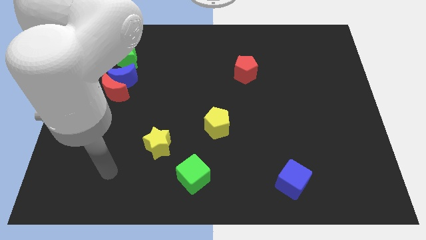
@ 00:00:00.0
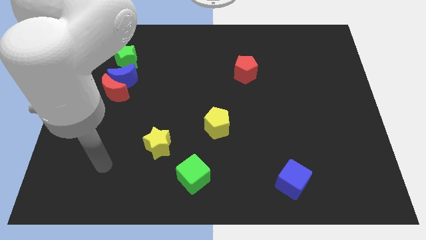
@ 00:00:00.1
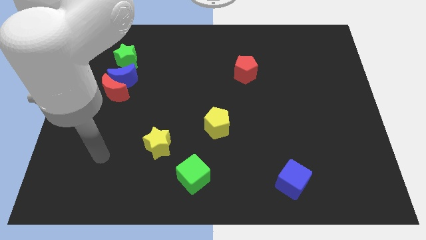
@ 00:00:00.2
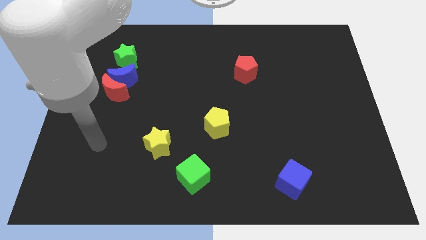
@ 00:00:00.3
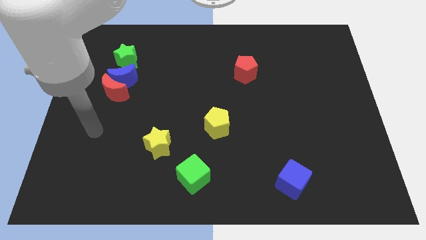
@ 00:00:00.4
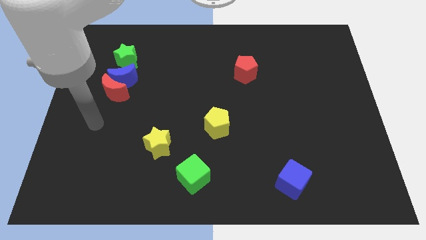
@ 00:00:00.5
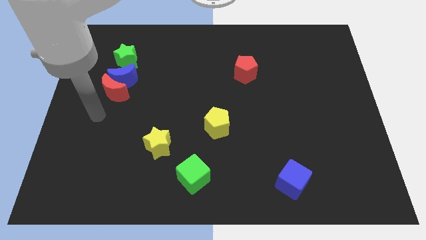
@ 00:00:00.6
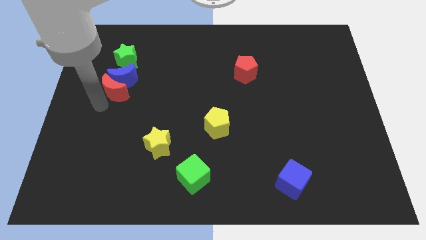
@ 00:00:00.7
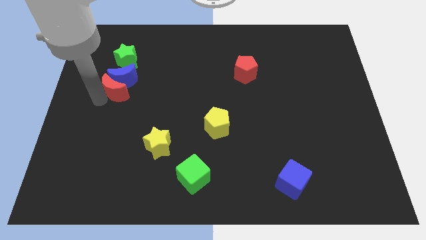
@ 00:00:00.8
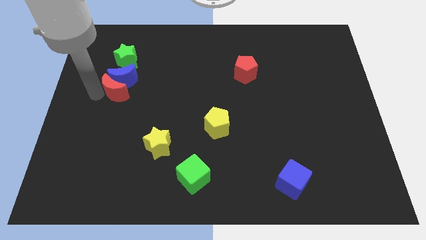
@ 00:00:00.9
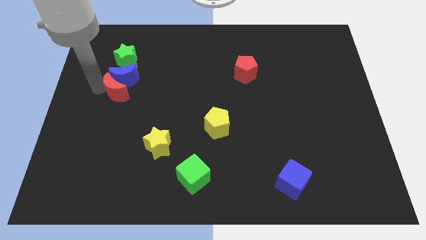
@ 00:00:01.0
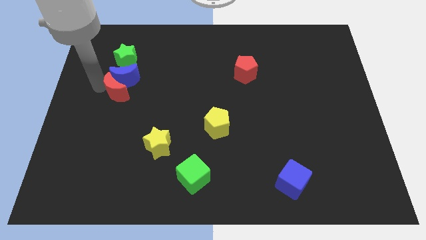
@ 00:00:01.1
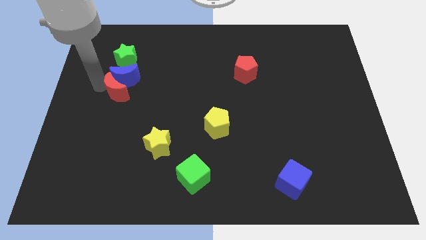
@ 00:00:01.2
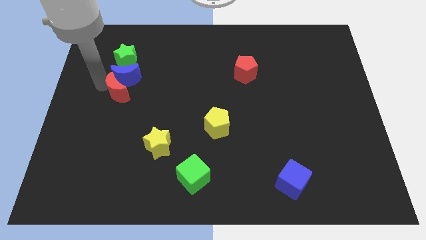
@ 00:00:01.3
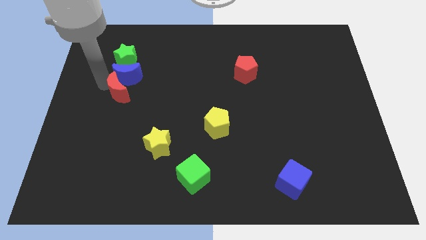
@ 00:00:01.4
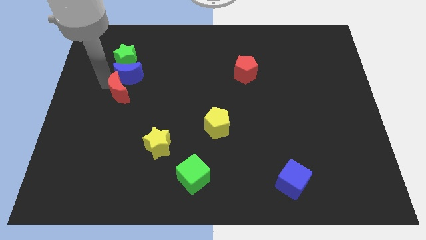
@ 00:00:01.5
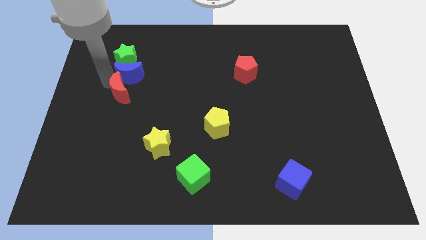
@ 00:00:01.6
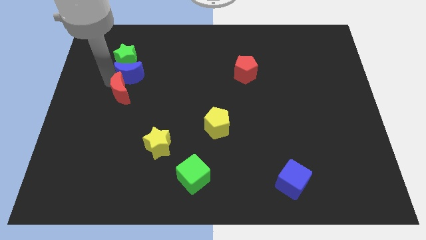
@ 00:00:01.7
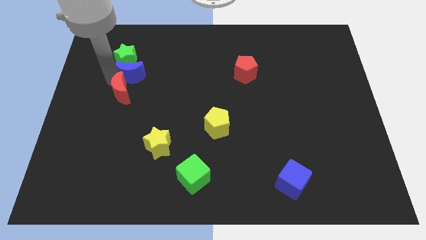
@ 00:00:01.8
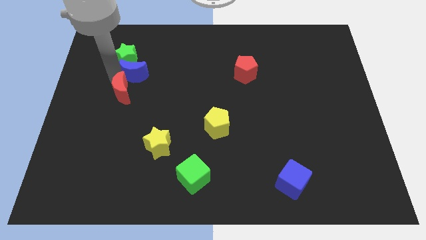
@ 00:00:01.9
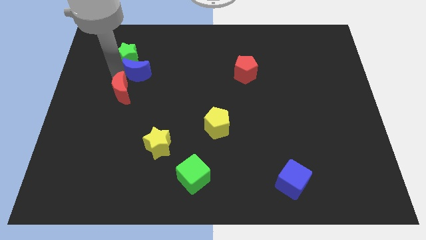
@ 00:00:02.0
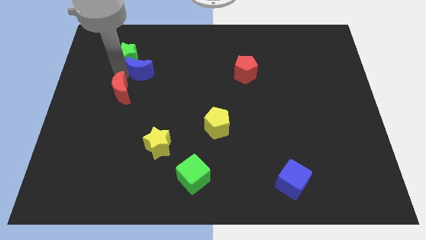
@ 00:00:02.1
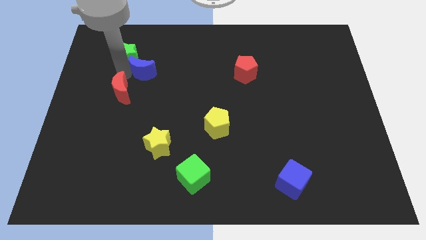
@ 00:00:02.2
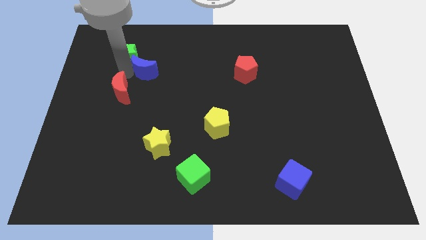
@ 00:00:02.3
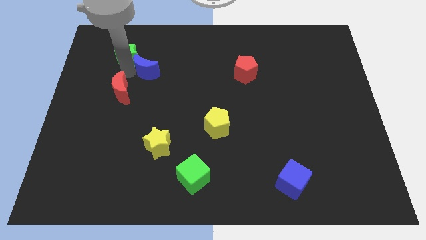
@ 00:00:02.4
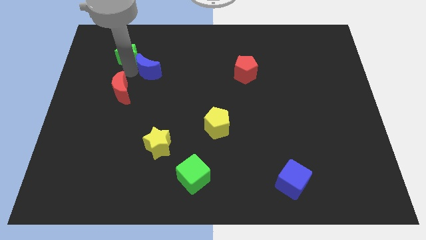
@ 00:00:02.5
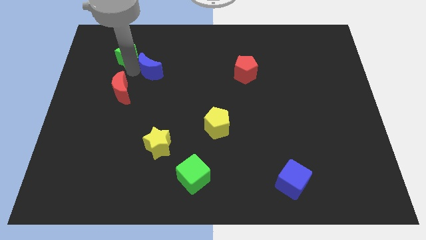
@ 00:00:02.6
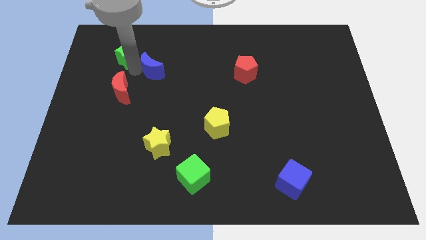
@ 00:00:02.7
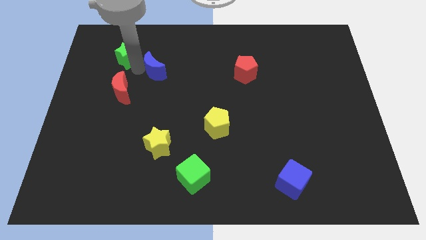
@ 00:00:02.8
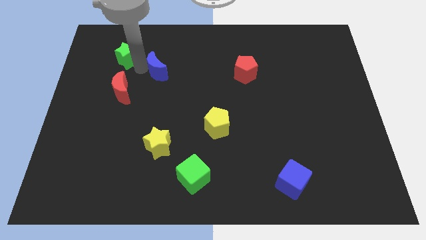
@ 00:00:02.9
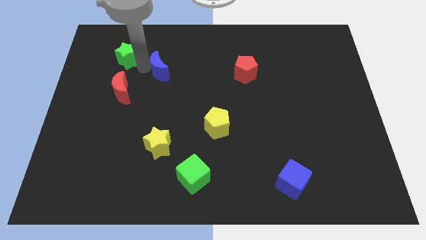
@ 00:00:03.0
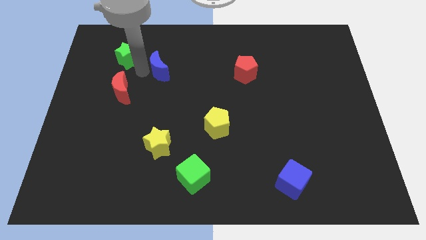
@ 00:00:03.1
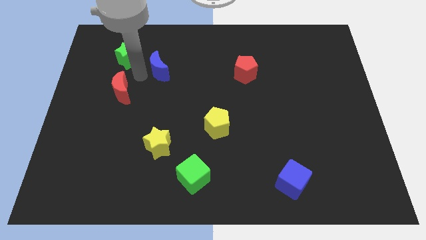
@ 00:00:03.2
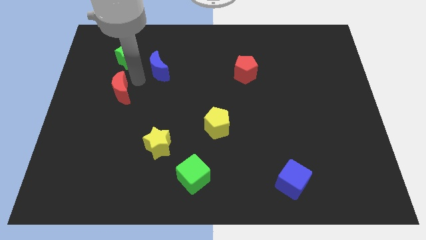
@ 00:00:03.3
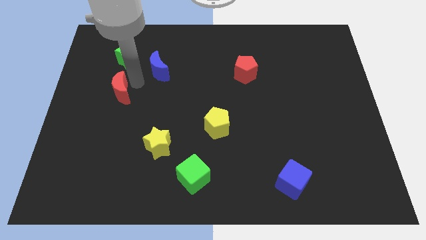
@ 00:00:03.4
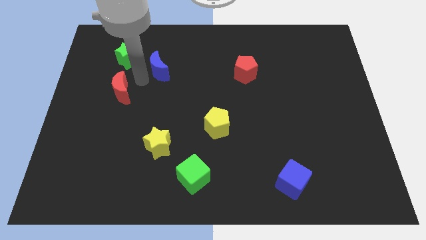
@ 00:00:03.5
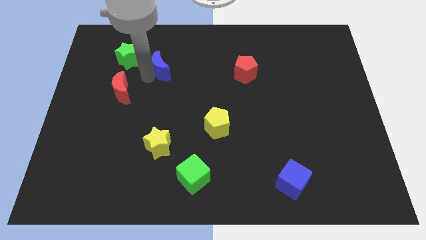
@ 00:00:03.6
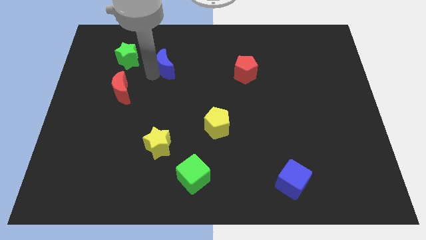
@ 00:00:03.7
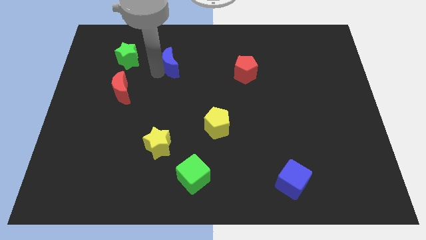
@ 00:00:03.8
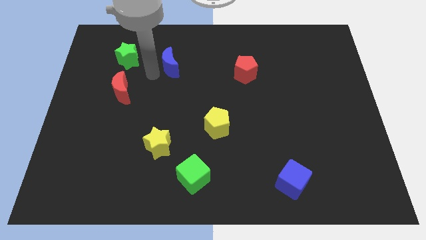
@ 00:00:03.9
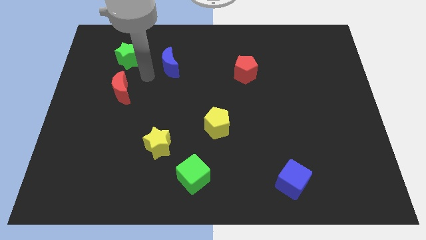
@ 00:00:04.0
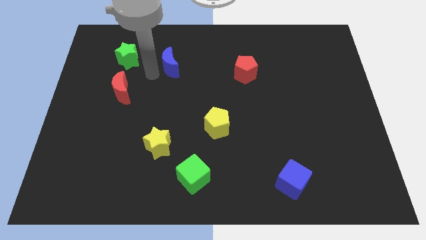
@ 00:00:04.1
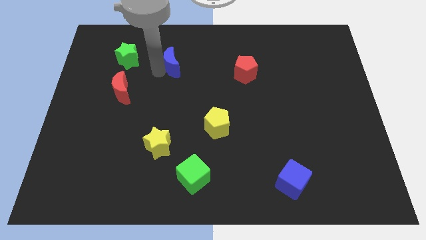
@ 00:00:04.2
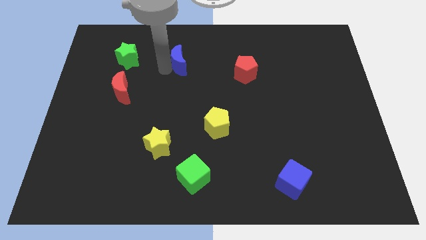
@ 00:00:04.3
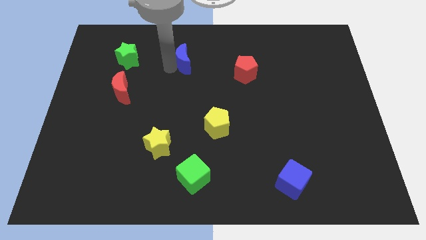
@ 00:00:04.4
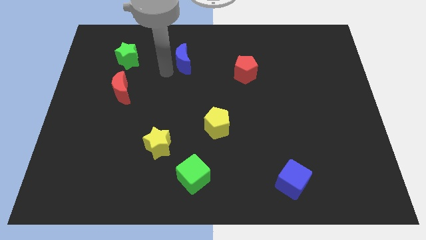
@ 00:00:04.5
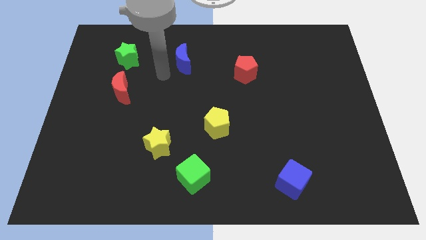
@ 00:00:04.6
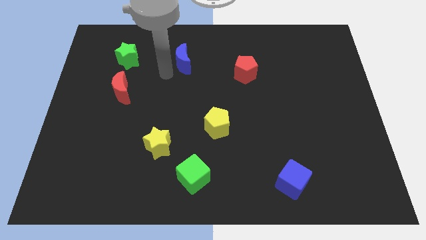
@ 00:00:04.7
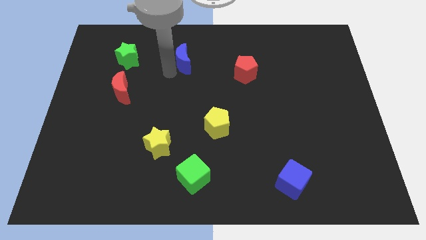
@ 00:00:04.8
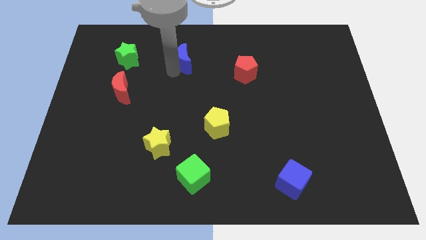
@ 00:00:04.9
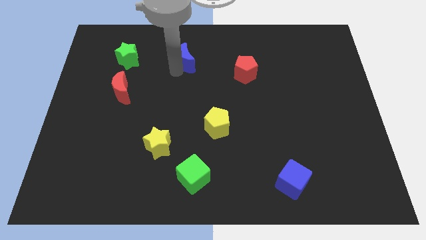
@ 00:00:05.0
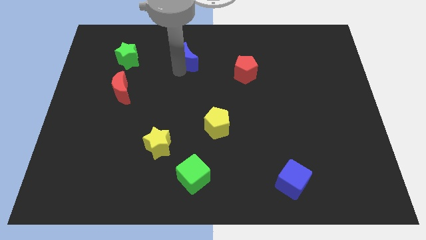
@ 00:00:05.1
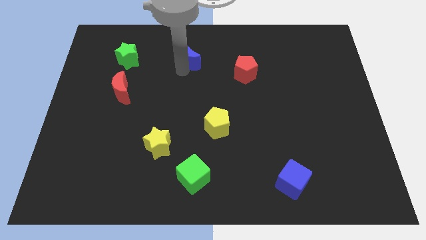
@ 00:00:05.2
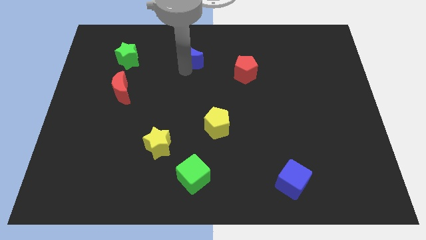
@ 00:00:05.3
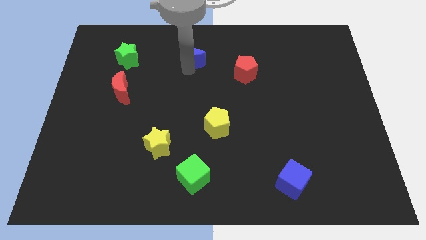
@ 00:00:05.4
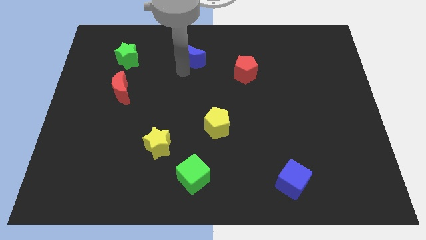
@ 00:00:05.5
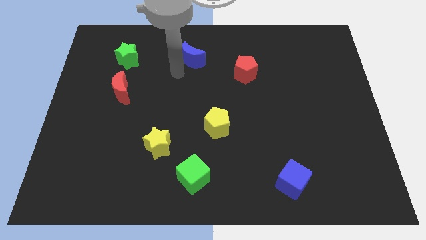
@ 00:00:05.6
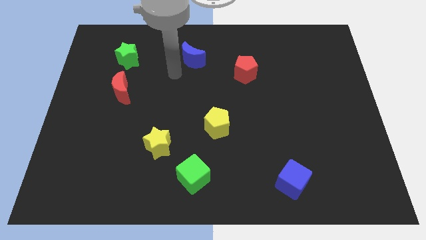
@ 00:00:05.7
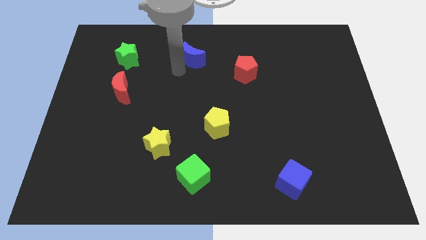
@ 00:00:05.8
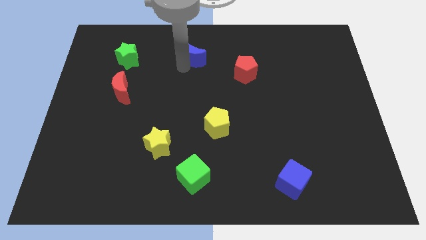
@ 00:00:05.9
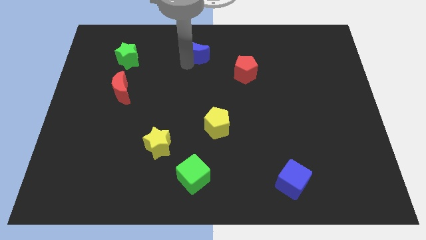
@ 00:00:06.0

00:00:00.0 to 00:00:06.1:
slide the blue moon to the towards your base

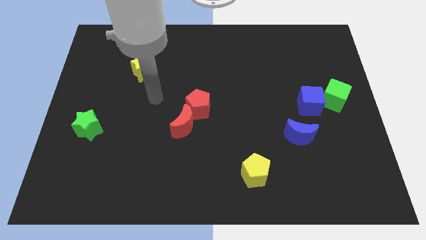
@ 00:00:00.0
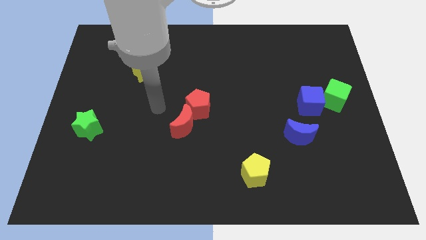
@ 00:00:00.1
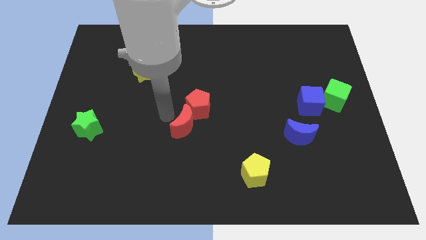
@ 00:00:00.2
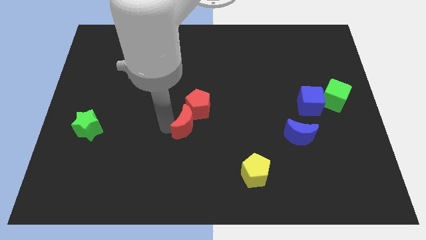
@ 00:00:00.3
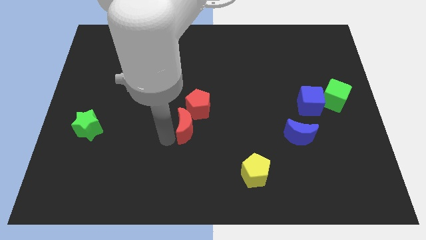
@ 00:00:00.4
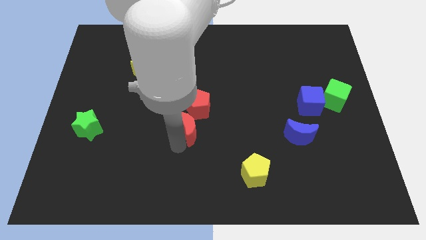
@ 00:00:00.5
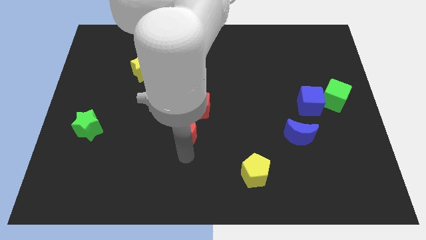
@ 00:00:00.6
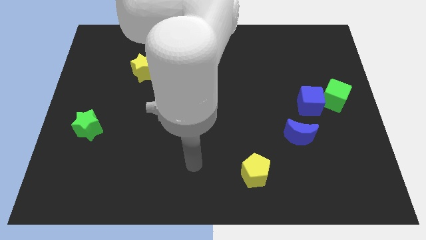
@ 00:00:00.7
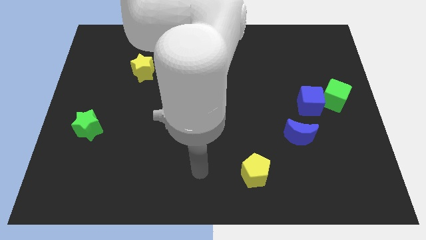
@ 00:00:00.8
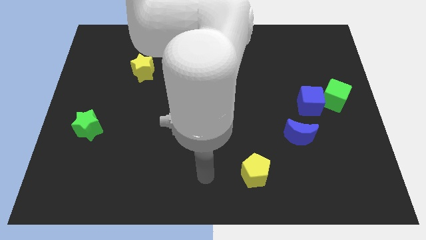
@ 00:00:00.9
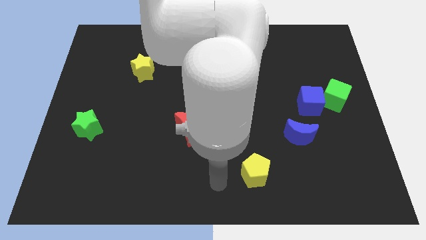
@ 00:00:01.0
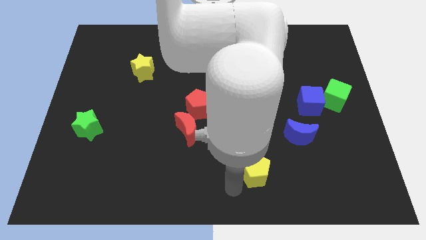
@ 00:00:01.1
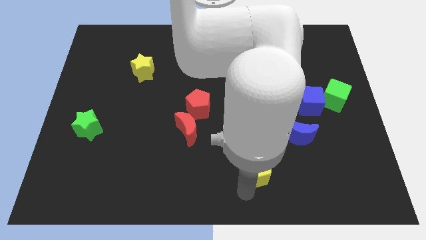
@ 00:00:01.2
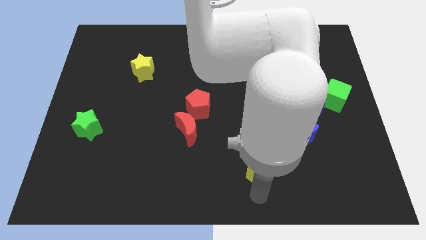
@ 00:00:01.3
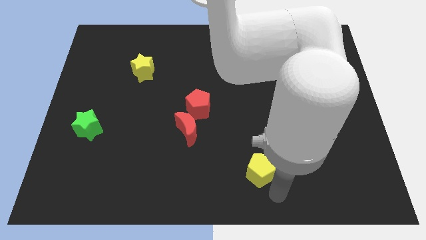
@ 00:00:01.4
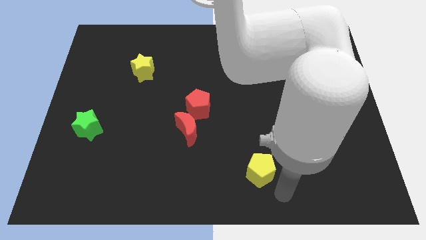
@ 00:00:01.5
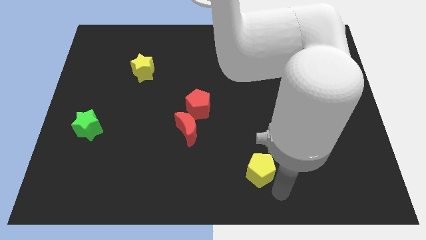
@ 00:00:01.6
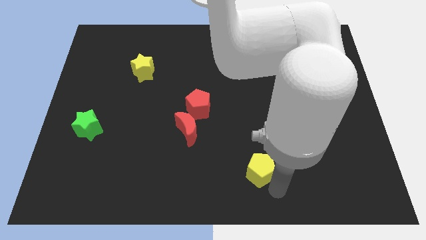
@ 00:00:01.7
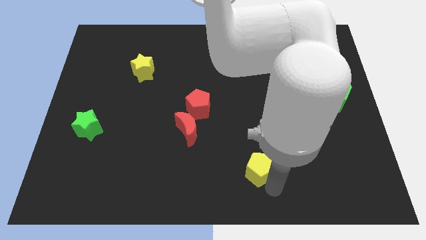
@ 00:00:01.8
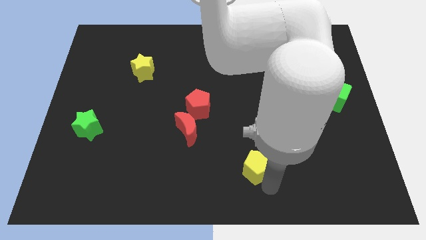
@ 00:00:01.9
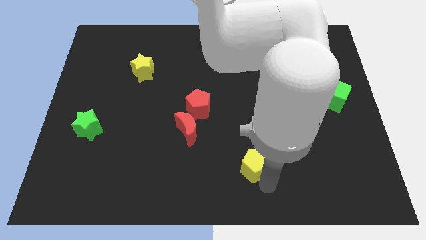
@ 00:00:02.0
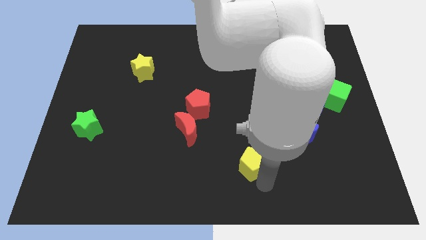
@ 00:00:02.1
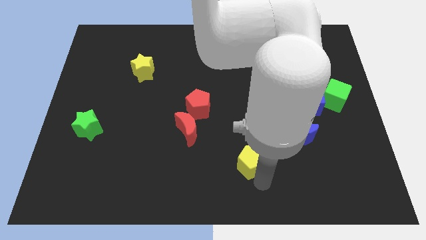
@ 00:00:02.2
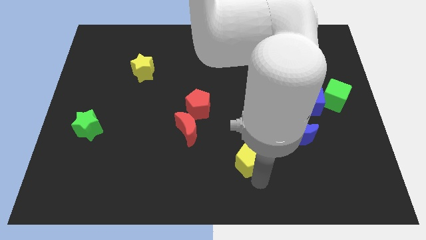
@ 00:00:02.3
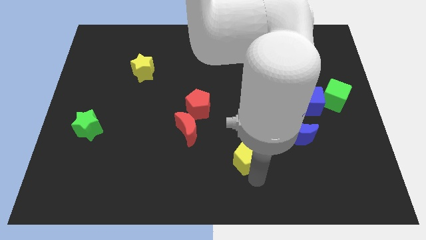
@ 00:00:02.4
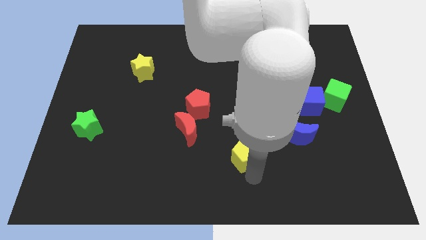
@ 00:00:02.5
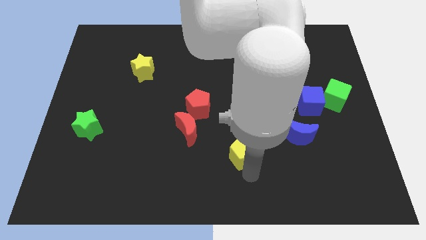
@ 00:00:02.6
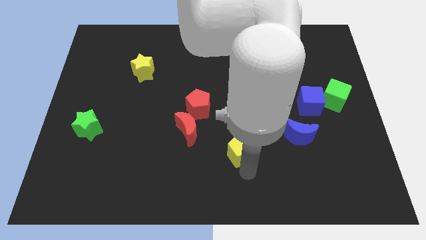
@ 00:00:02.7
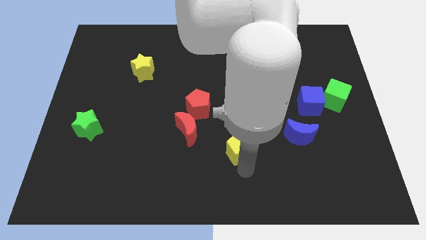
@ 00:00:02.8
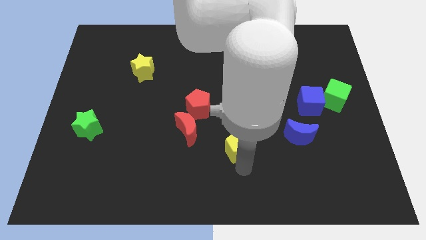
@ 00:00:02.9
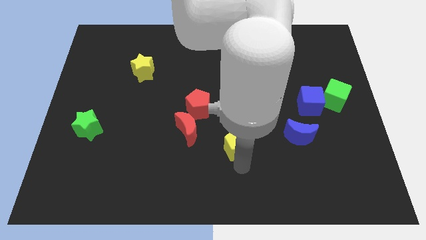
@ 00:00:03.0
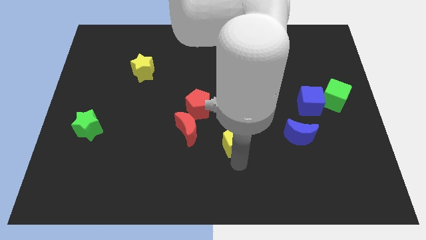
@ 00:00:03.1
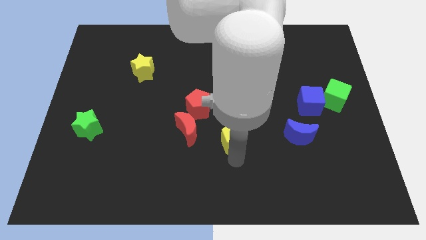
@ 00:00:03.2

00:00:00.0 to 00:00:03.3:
slide the yellow pentagon to the middle
